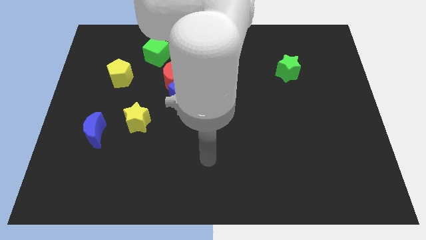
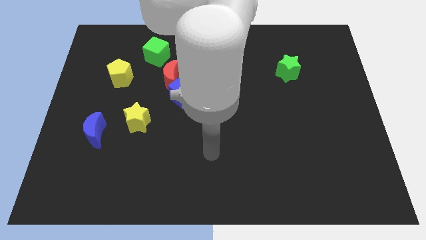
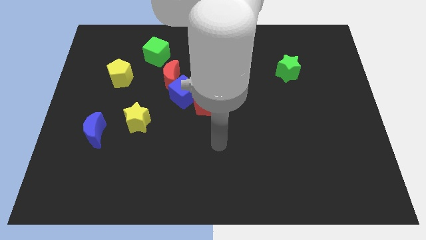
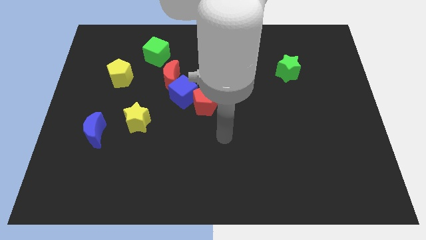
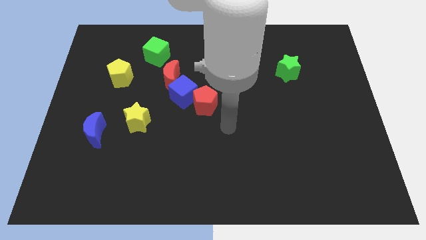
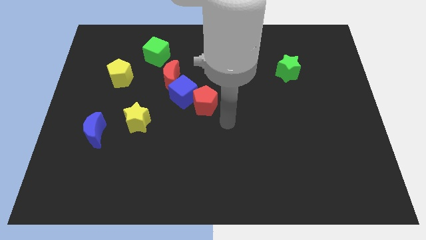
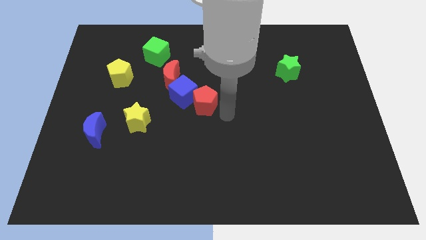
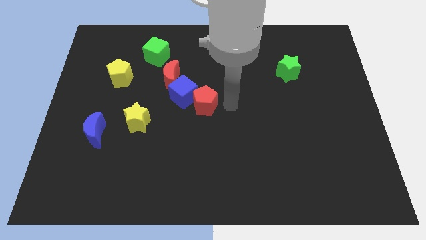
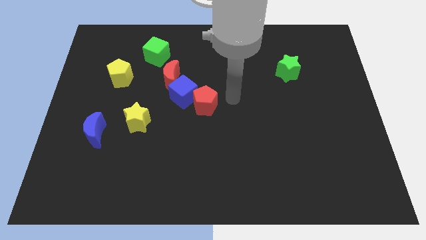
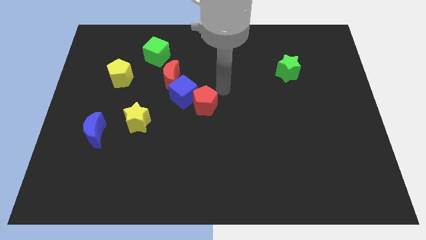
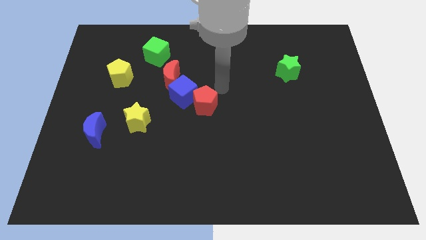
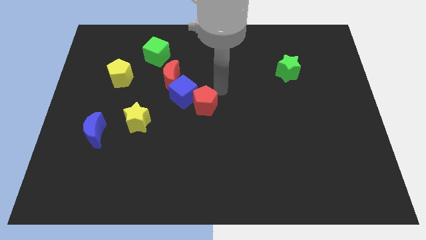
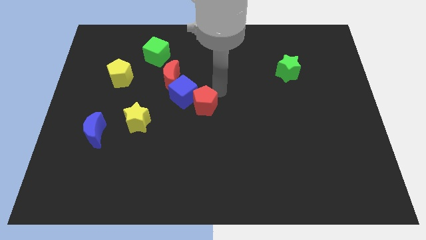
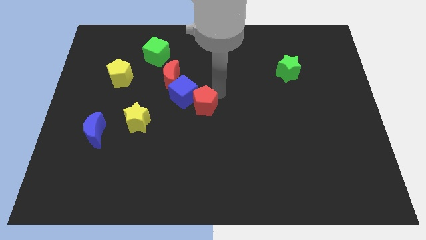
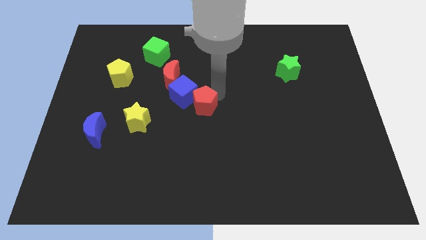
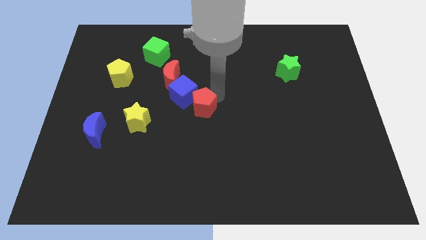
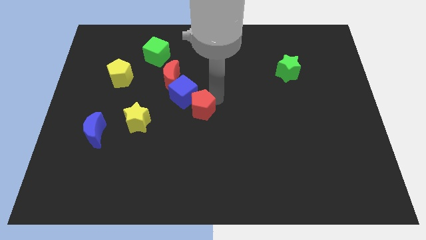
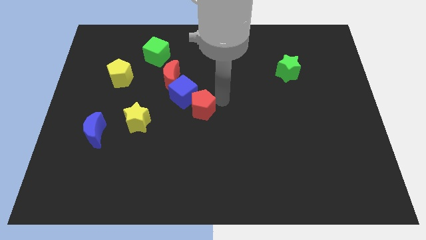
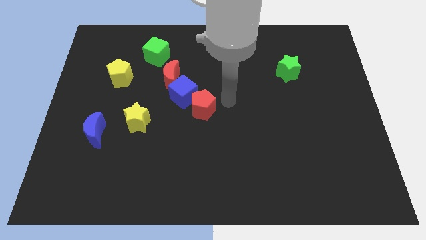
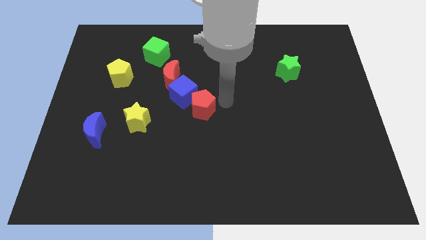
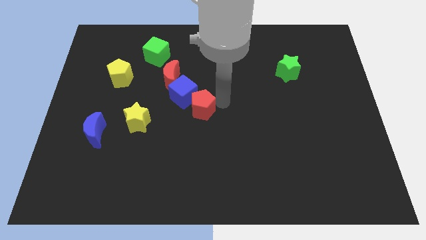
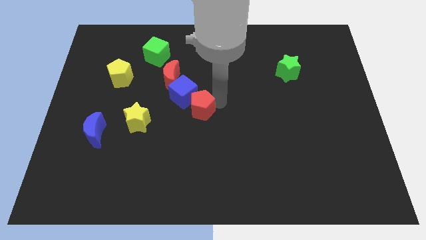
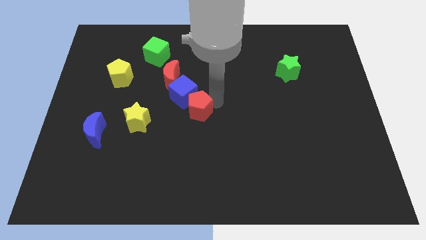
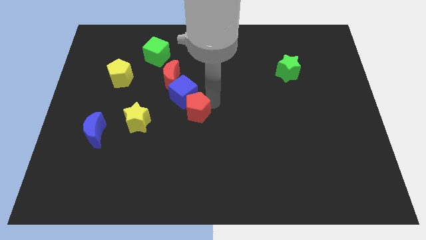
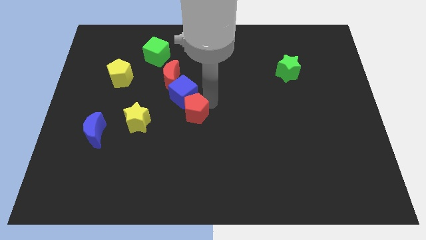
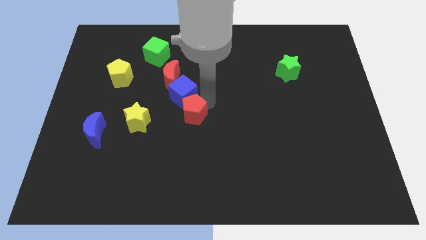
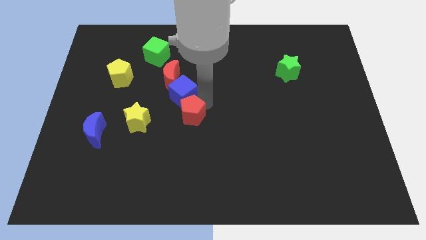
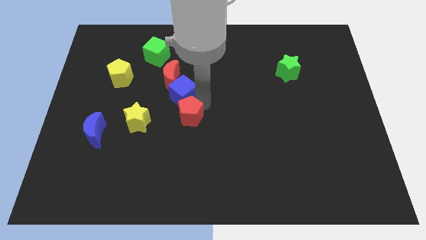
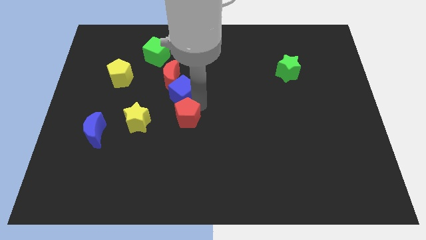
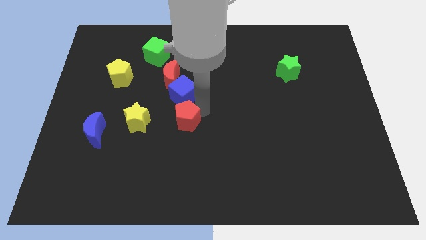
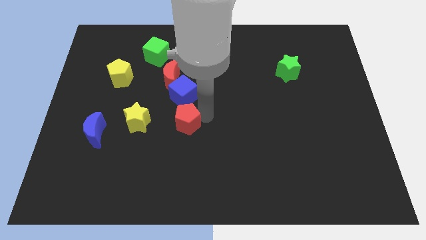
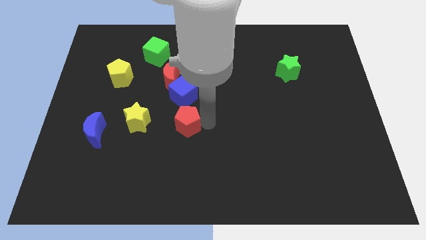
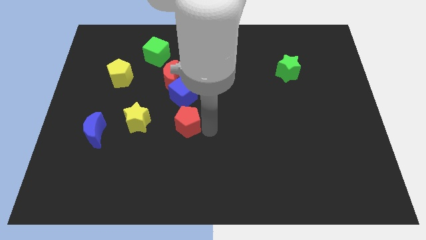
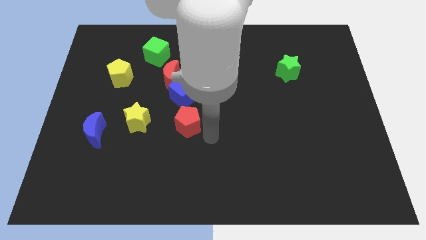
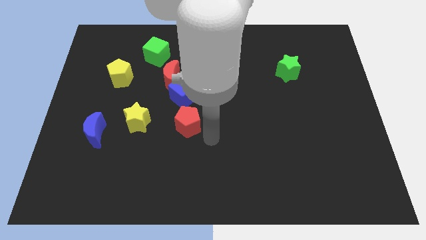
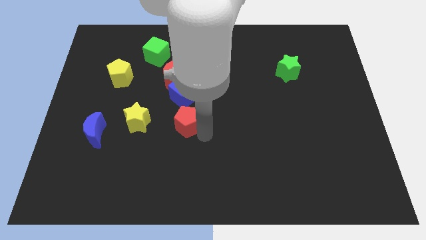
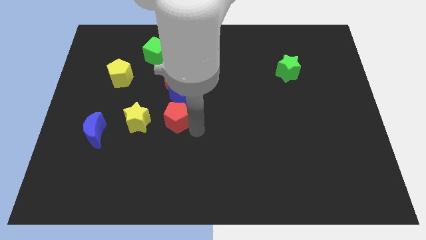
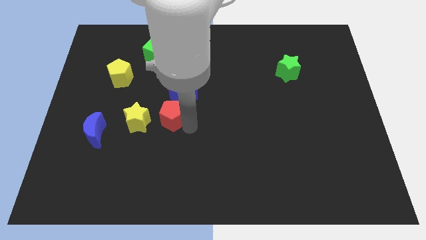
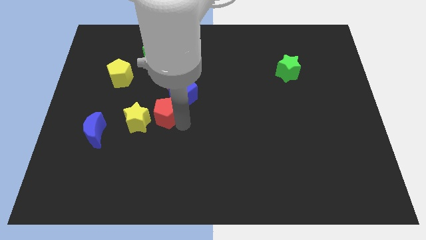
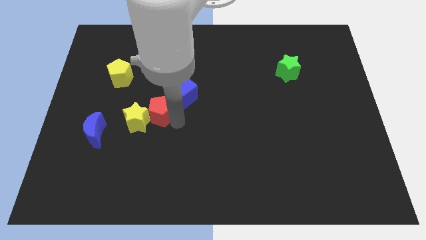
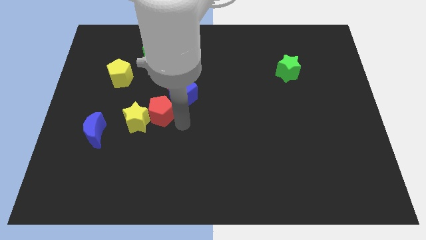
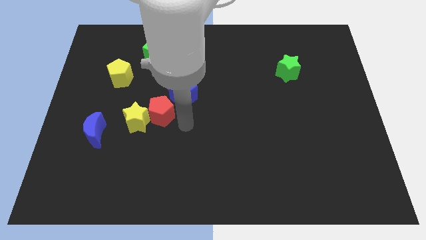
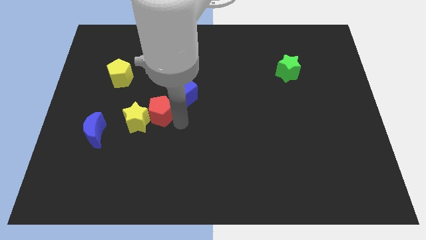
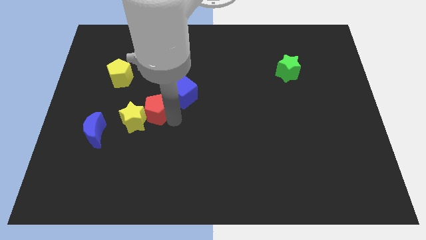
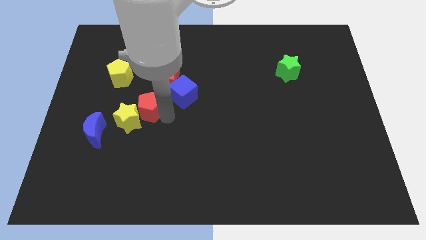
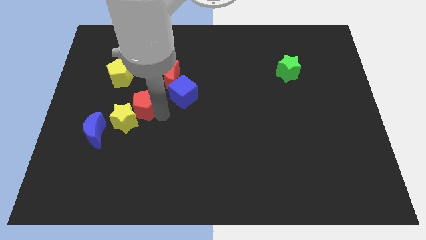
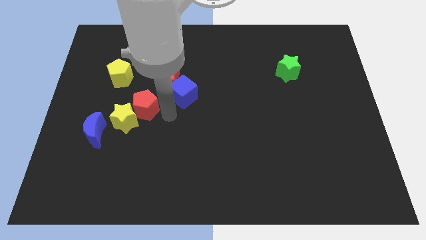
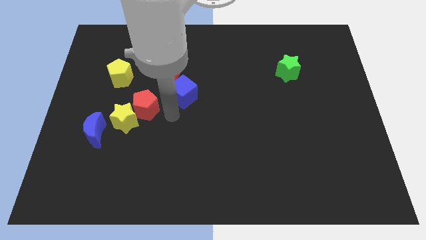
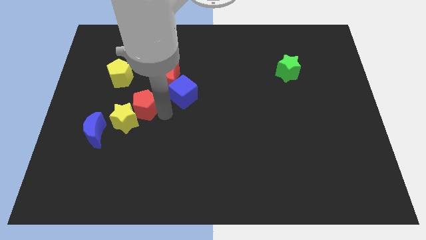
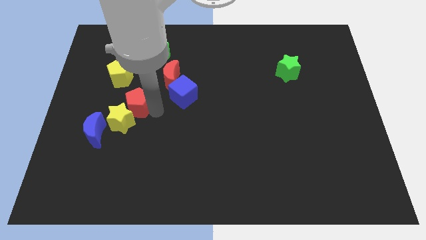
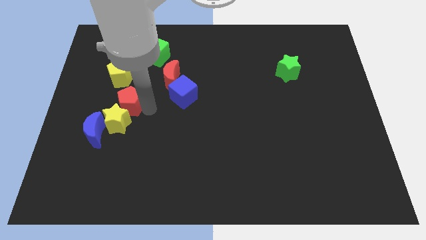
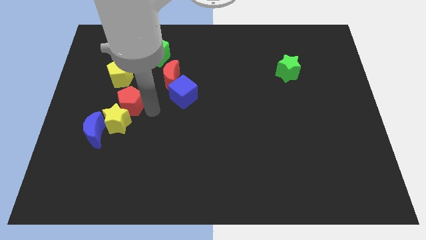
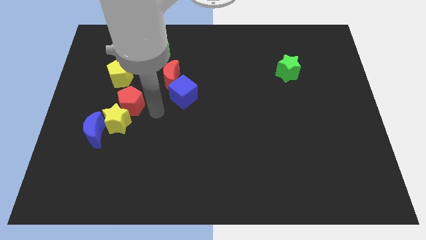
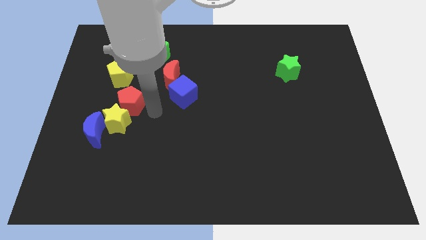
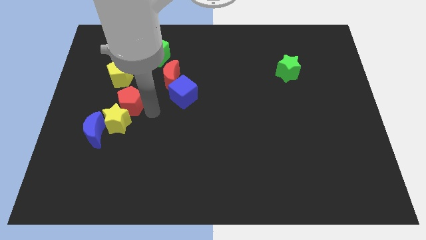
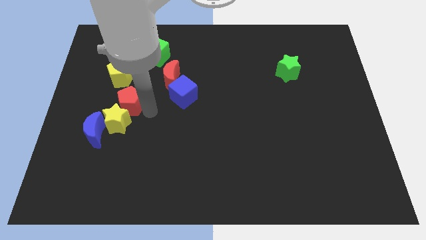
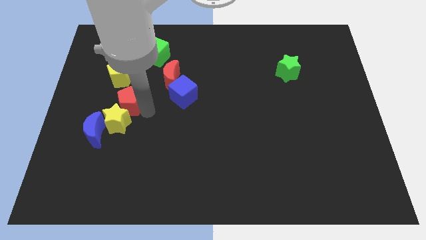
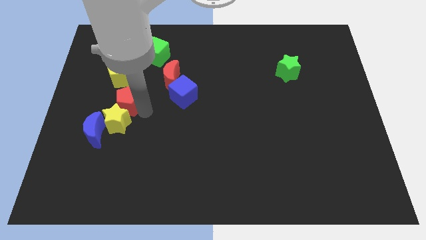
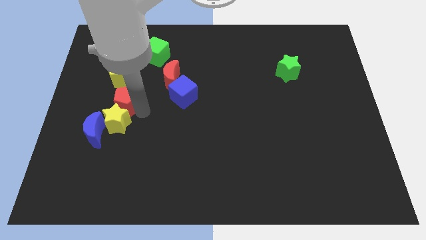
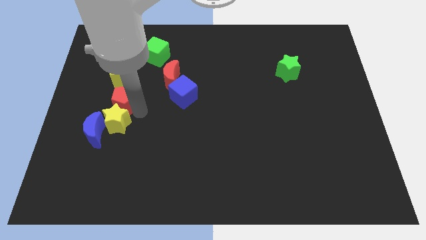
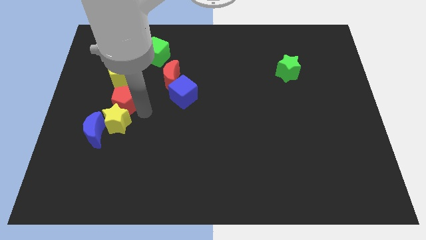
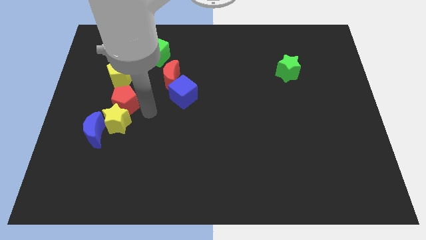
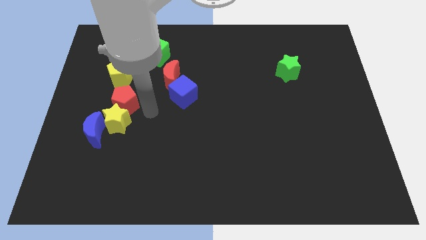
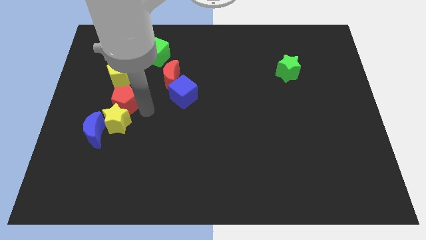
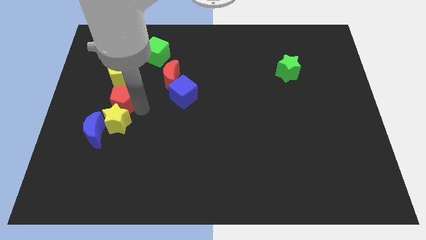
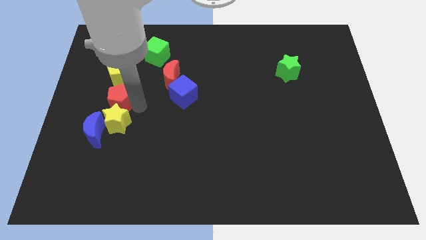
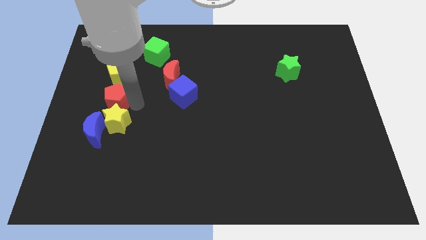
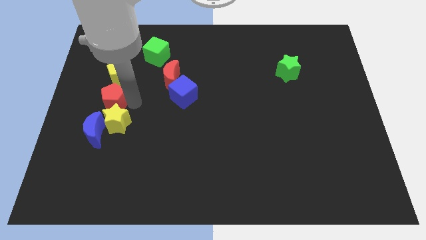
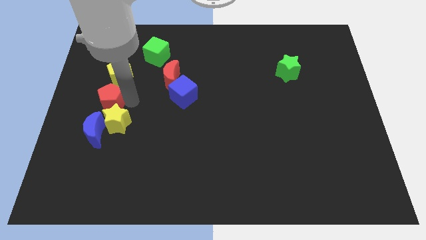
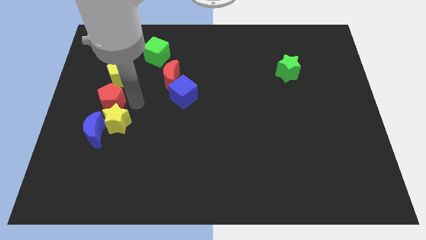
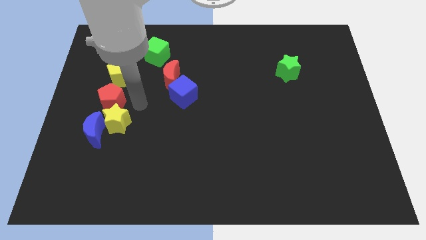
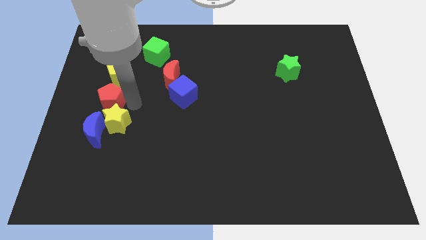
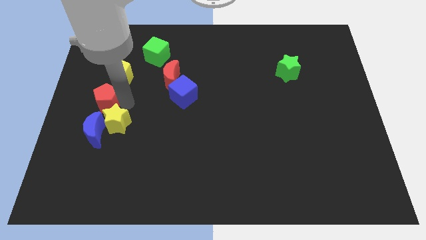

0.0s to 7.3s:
push the red pentagon to the center left
